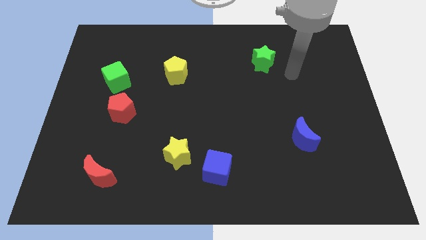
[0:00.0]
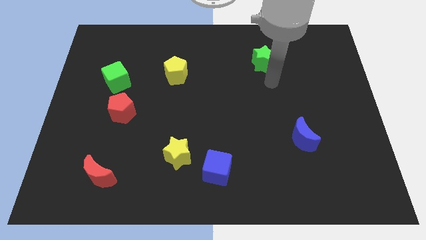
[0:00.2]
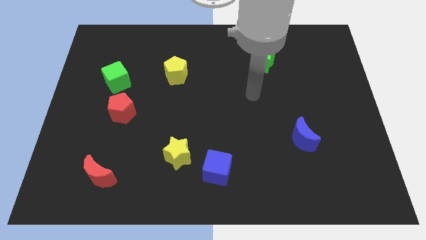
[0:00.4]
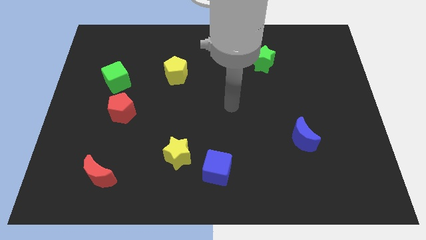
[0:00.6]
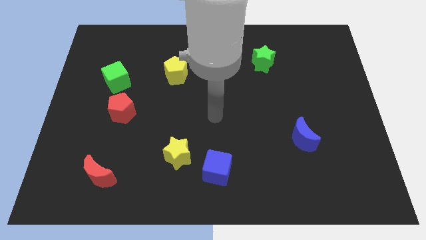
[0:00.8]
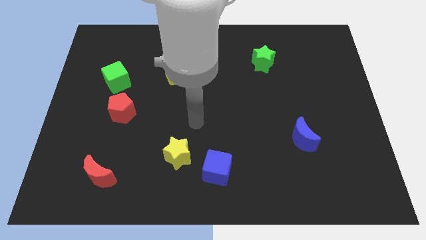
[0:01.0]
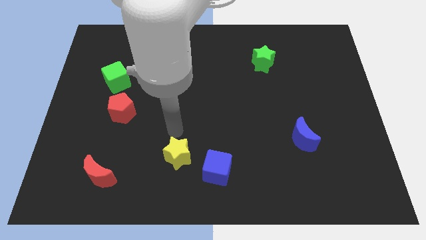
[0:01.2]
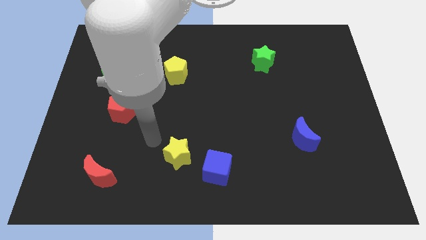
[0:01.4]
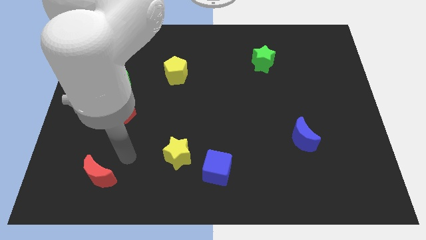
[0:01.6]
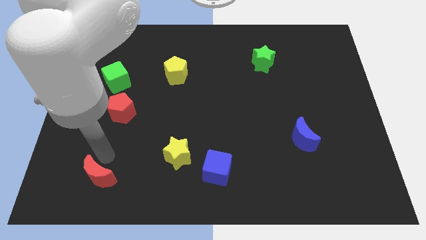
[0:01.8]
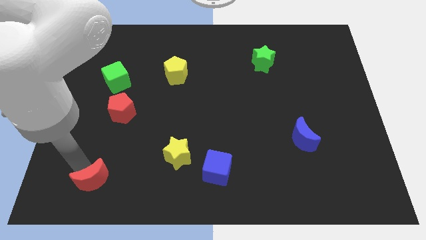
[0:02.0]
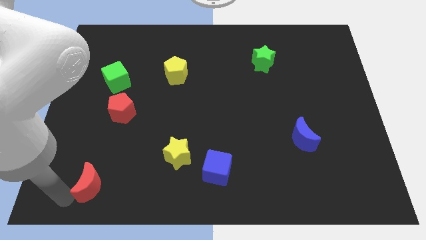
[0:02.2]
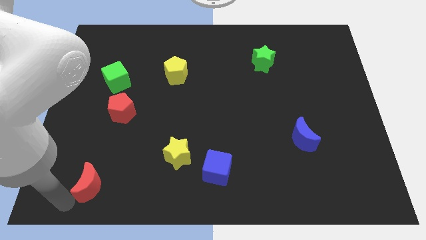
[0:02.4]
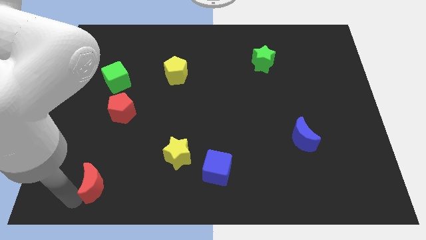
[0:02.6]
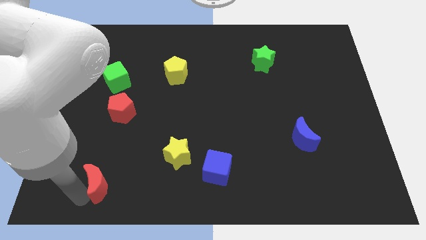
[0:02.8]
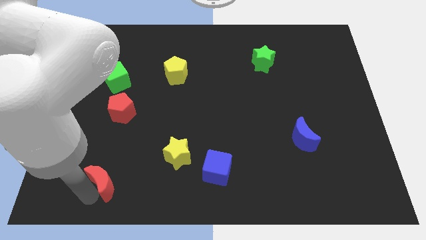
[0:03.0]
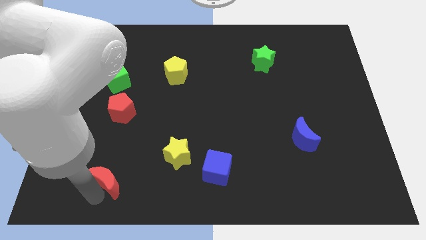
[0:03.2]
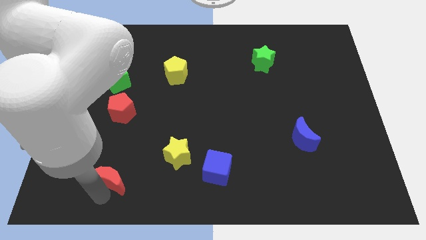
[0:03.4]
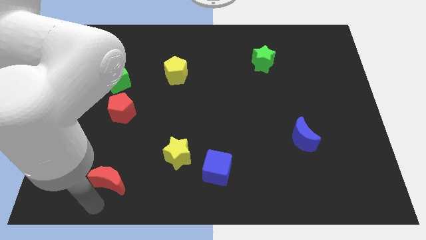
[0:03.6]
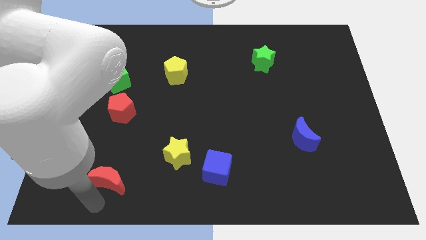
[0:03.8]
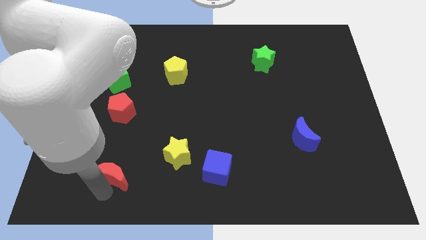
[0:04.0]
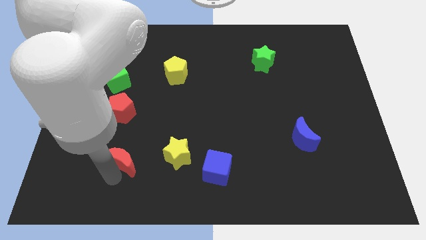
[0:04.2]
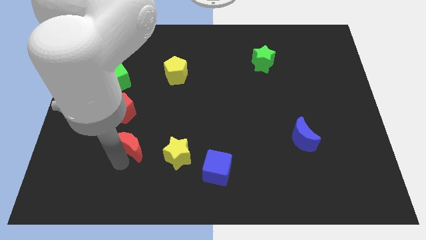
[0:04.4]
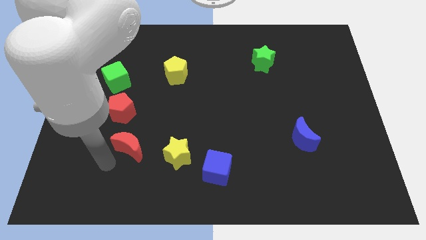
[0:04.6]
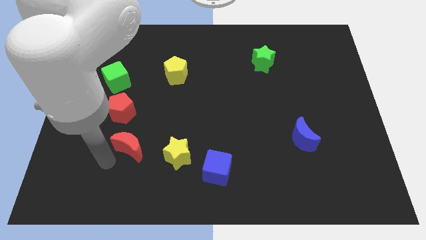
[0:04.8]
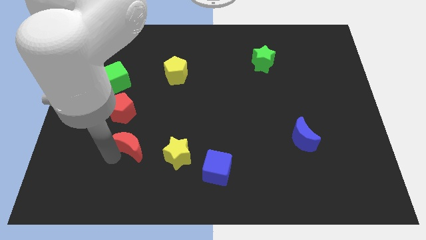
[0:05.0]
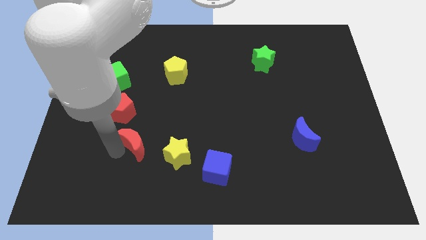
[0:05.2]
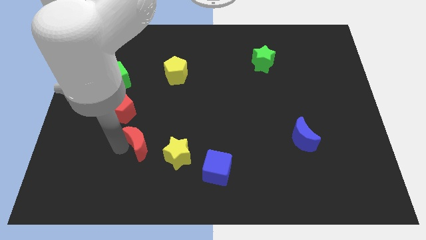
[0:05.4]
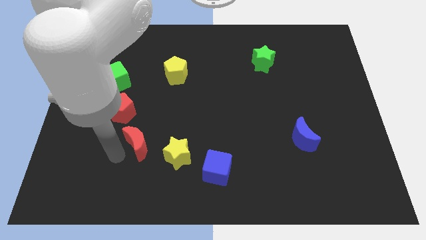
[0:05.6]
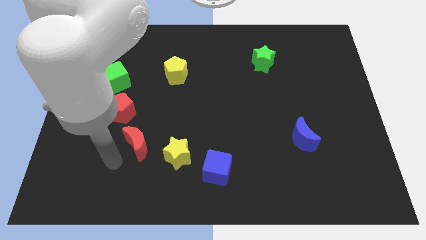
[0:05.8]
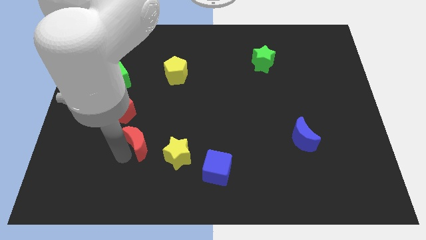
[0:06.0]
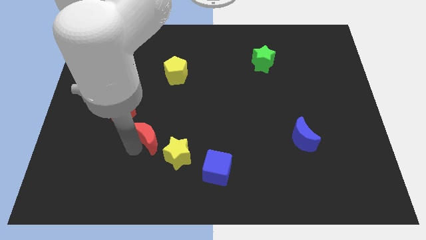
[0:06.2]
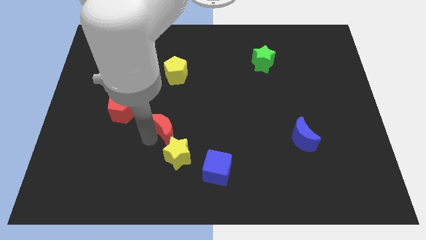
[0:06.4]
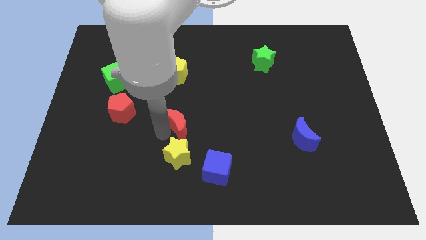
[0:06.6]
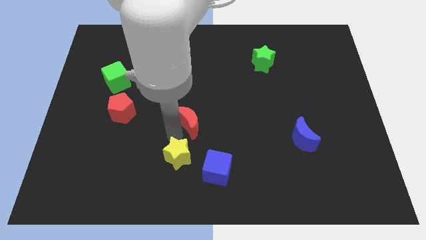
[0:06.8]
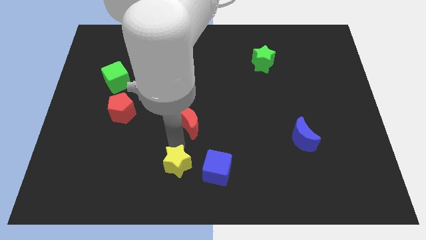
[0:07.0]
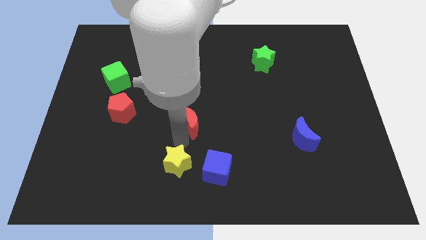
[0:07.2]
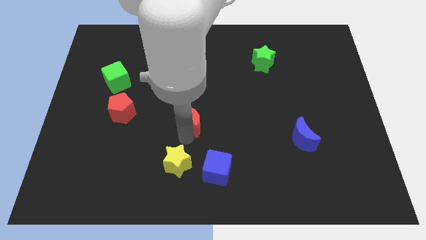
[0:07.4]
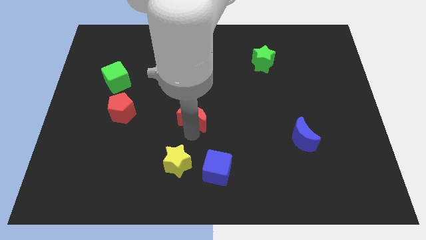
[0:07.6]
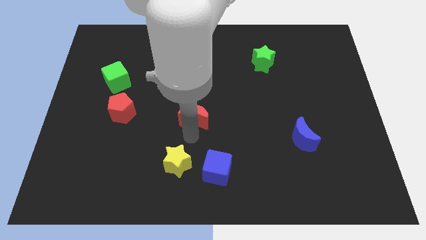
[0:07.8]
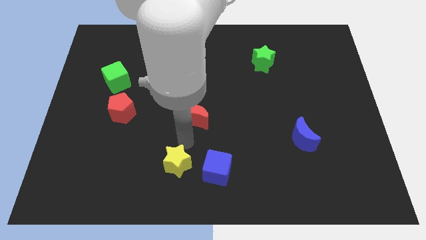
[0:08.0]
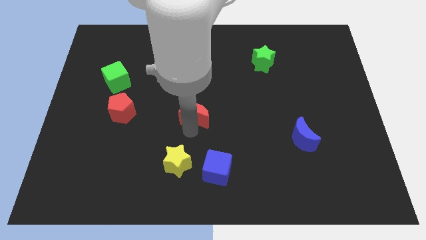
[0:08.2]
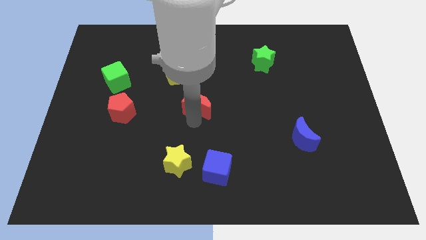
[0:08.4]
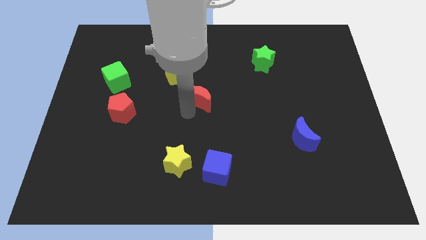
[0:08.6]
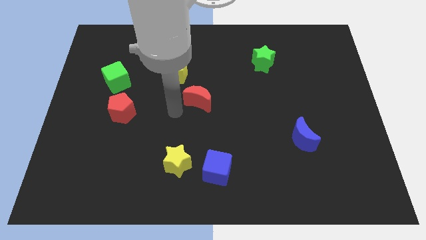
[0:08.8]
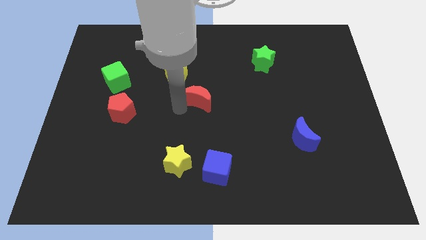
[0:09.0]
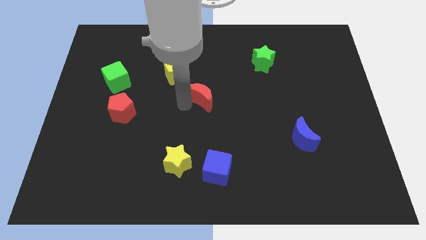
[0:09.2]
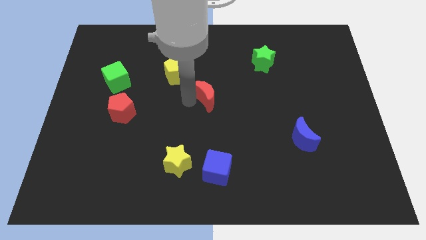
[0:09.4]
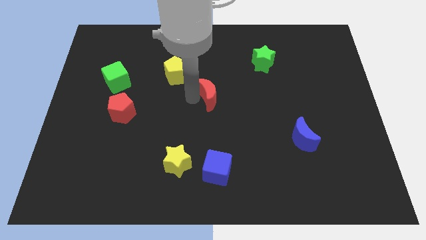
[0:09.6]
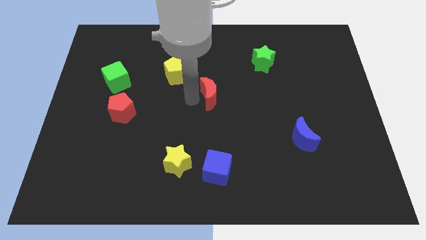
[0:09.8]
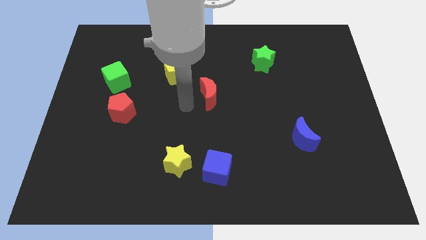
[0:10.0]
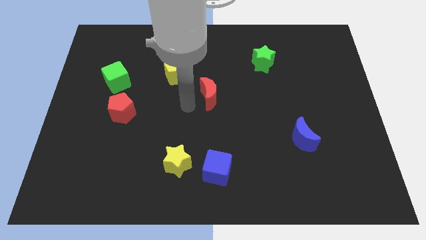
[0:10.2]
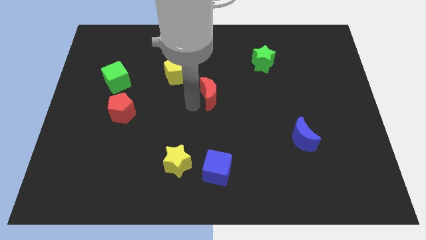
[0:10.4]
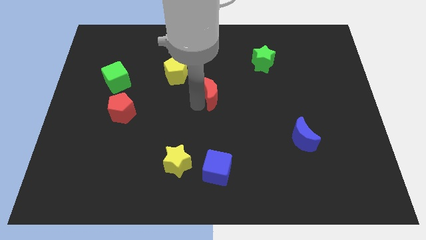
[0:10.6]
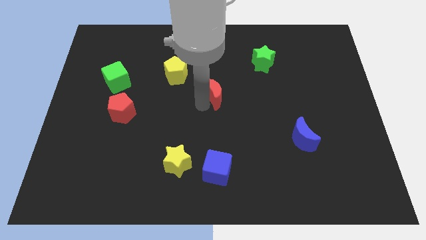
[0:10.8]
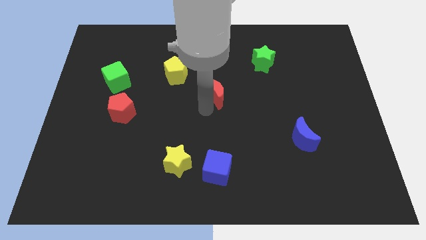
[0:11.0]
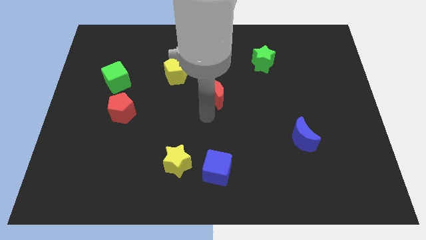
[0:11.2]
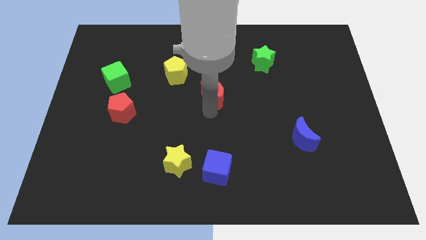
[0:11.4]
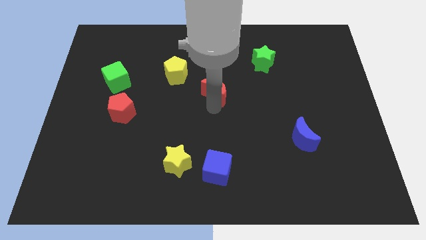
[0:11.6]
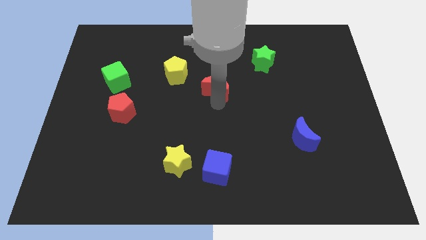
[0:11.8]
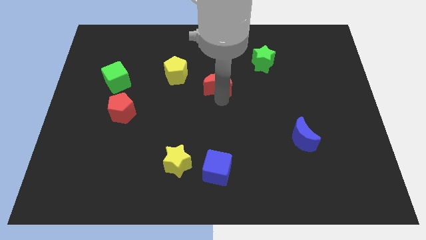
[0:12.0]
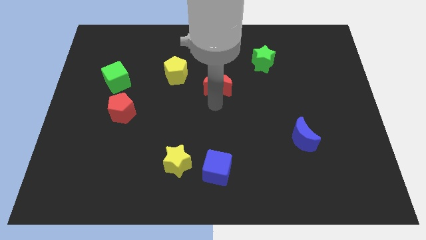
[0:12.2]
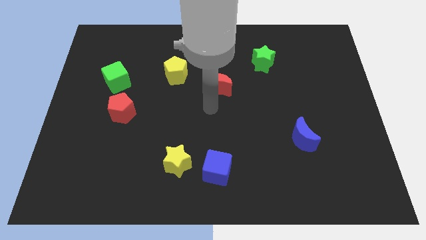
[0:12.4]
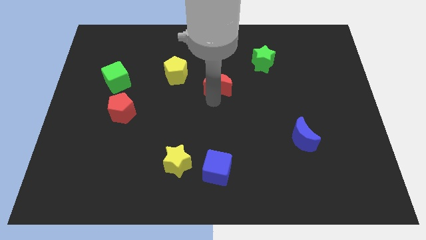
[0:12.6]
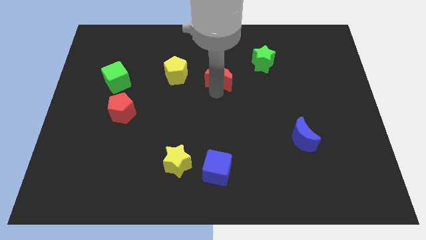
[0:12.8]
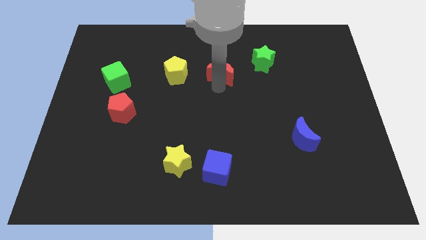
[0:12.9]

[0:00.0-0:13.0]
slide the red moon just left of the green star
